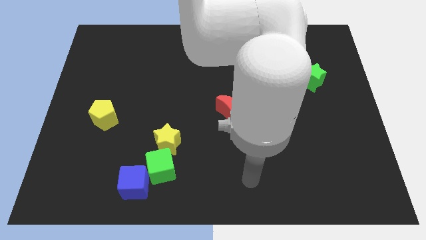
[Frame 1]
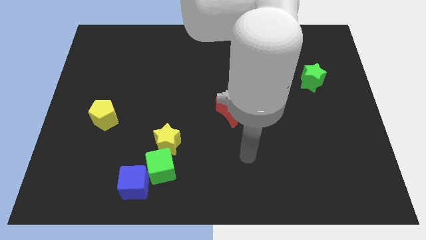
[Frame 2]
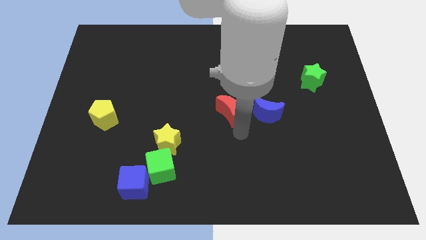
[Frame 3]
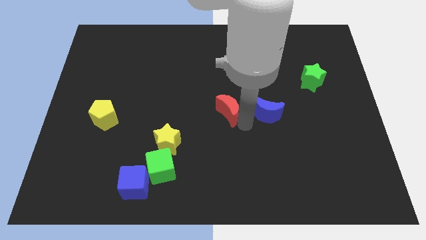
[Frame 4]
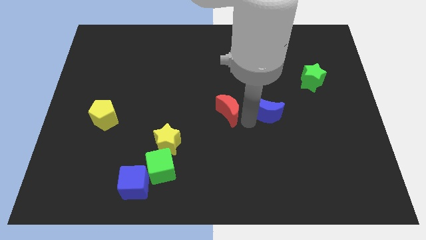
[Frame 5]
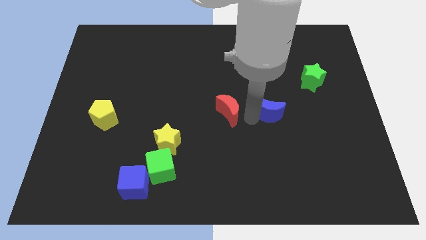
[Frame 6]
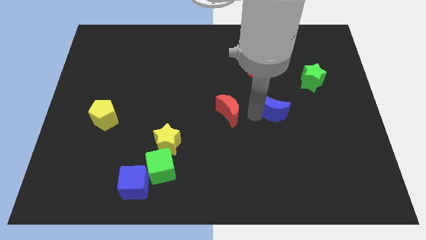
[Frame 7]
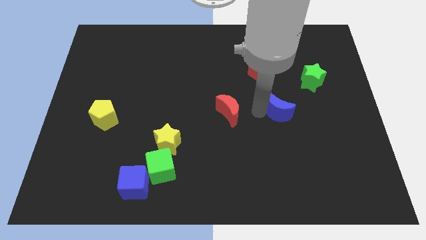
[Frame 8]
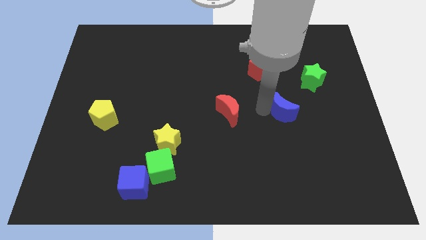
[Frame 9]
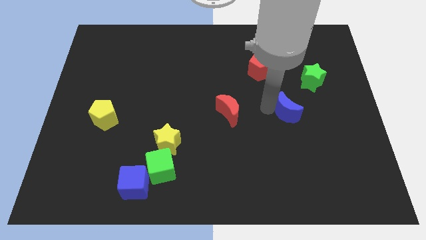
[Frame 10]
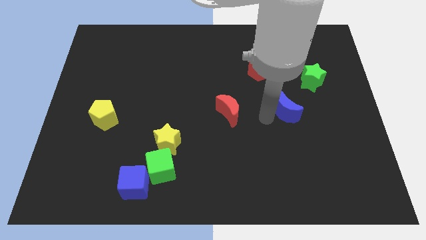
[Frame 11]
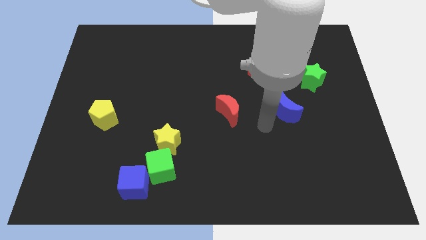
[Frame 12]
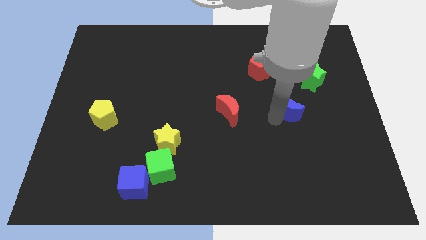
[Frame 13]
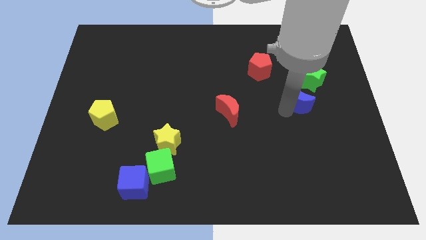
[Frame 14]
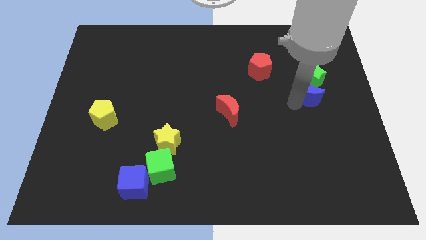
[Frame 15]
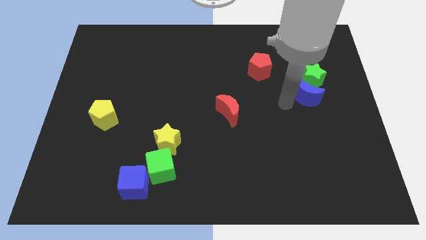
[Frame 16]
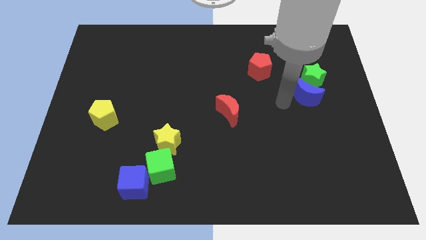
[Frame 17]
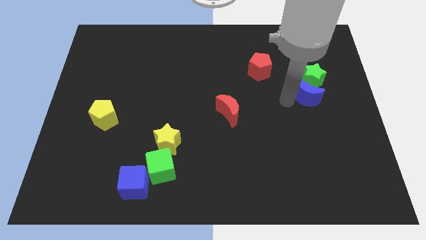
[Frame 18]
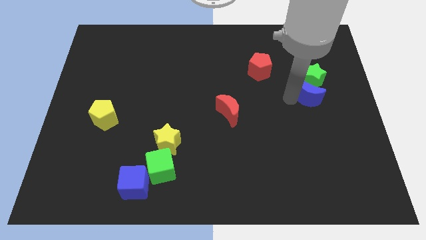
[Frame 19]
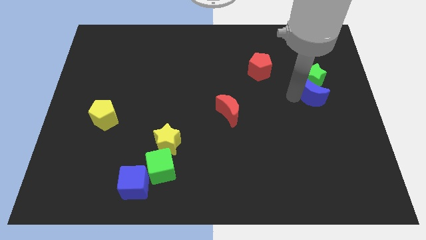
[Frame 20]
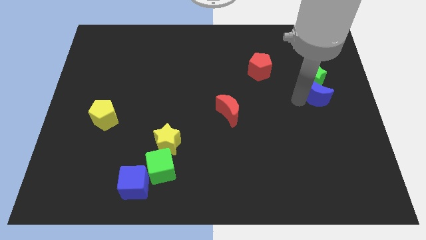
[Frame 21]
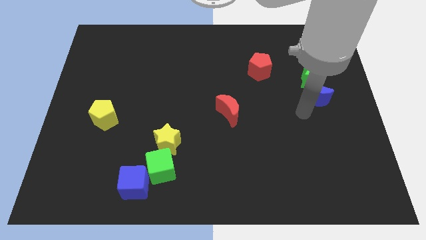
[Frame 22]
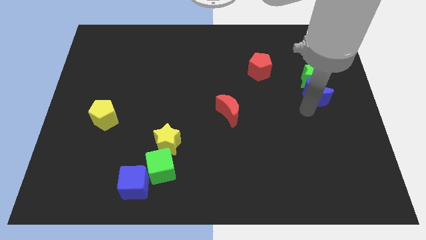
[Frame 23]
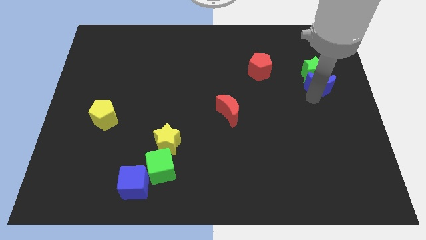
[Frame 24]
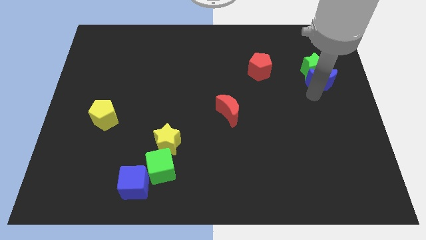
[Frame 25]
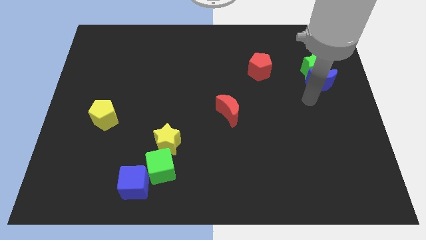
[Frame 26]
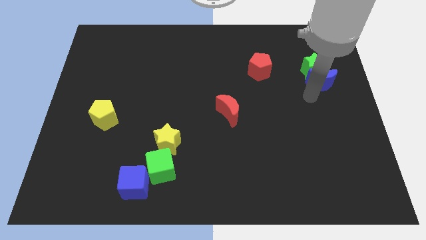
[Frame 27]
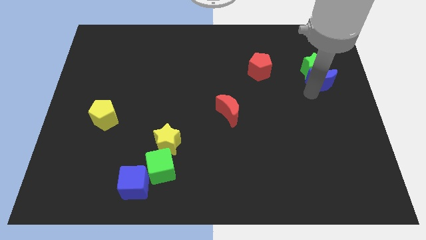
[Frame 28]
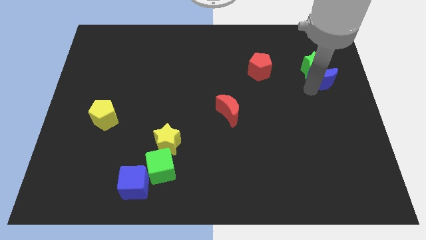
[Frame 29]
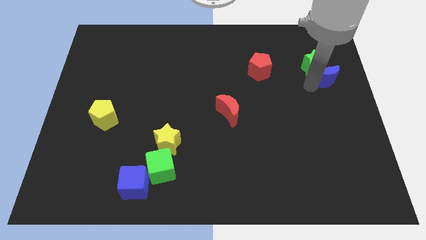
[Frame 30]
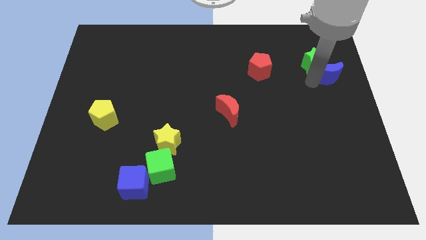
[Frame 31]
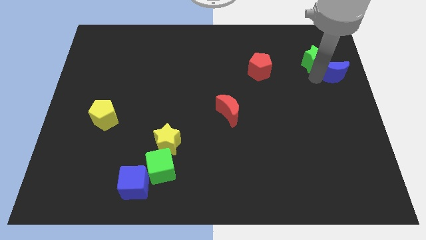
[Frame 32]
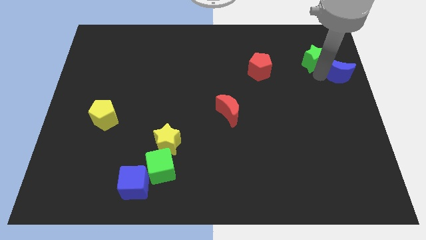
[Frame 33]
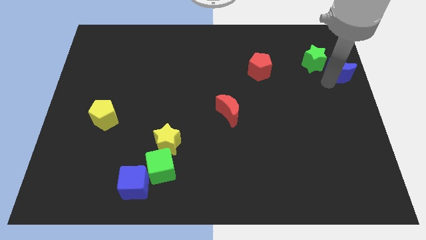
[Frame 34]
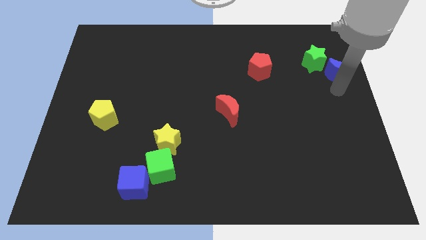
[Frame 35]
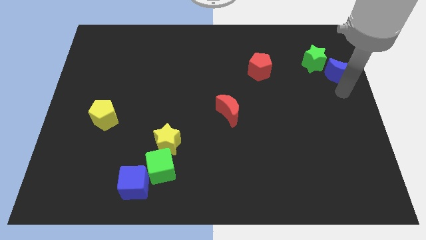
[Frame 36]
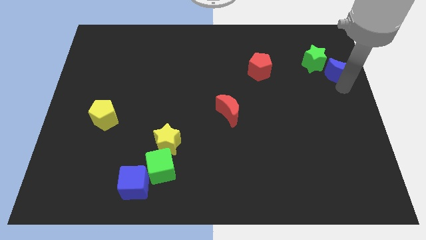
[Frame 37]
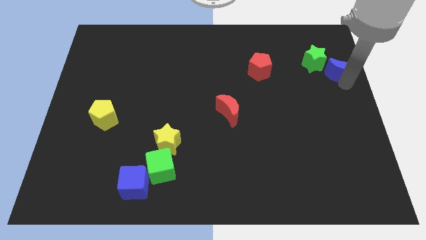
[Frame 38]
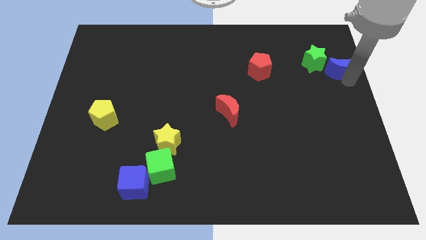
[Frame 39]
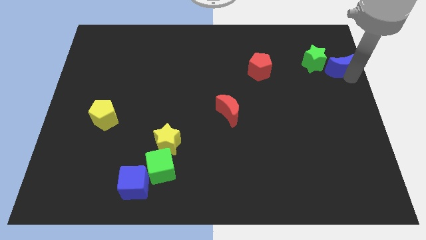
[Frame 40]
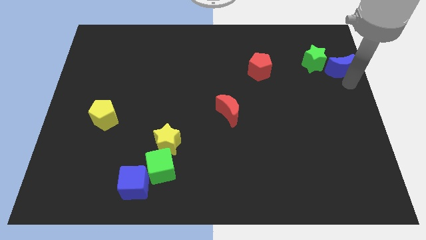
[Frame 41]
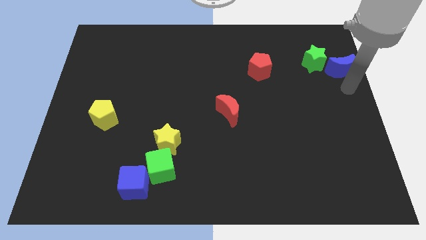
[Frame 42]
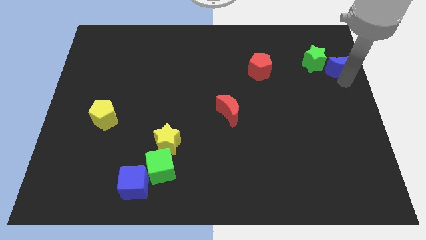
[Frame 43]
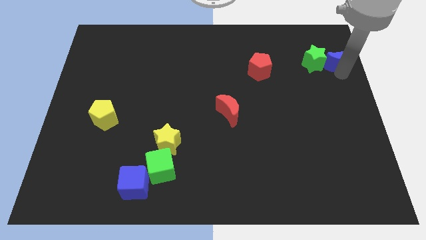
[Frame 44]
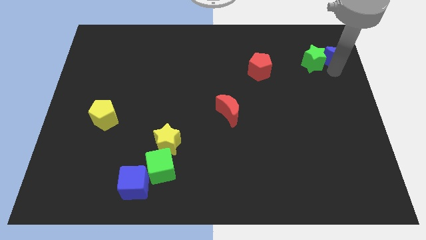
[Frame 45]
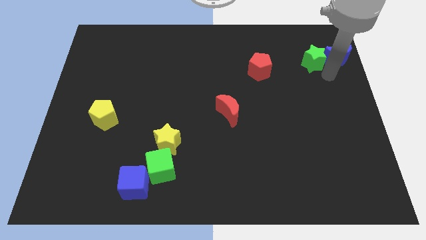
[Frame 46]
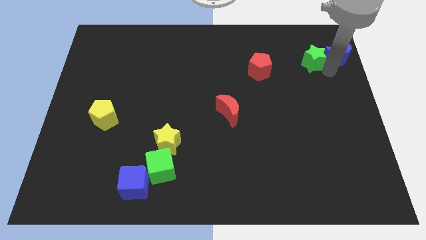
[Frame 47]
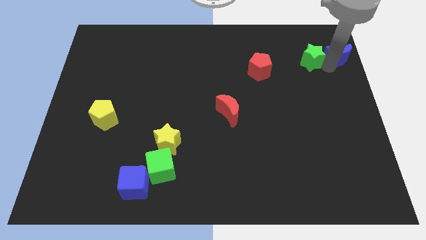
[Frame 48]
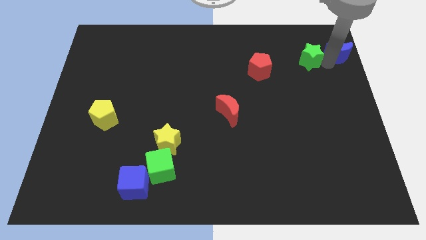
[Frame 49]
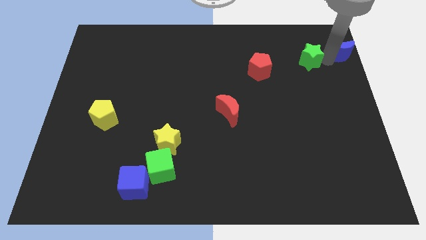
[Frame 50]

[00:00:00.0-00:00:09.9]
move the blue moon to the top right of the board

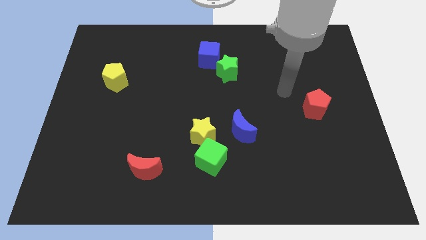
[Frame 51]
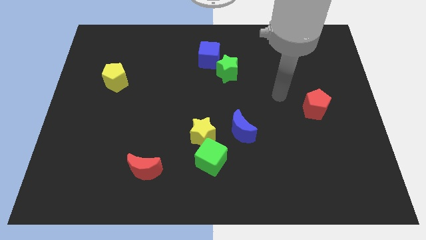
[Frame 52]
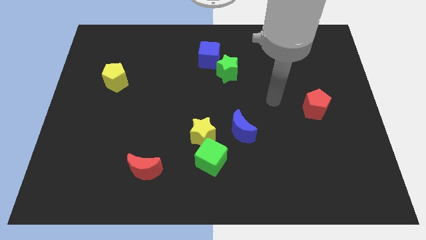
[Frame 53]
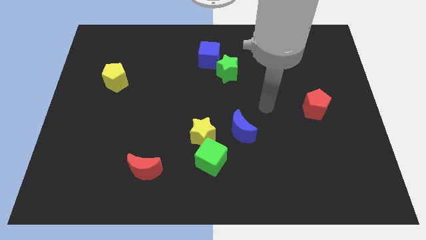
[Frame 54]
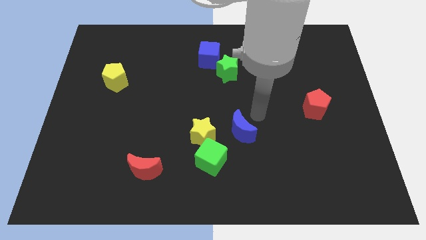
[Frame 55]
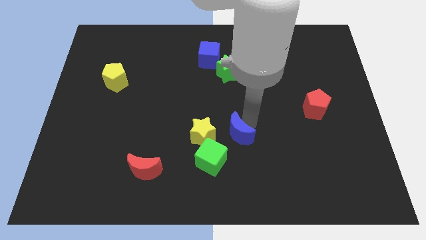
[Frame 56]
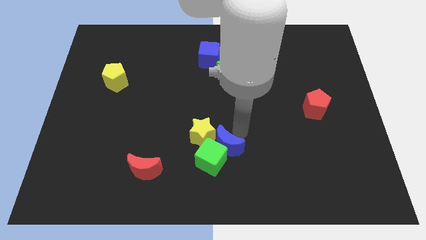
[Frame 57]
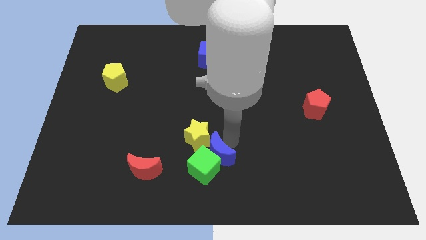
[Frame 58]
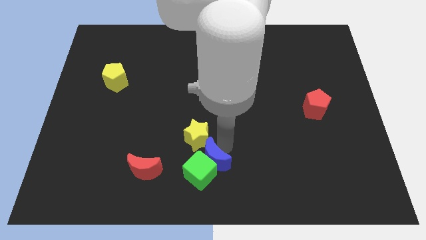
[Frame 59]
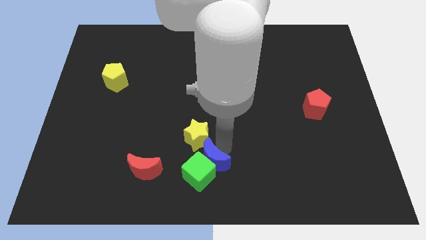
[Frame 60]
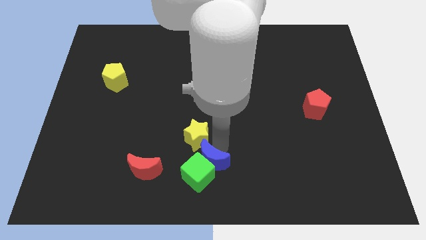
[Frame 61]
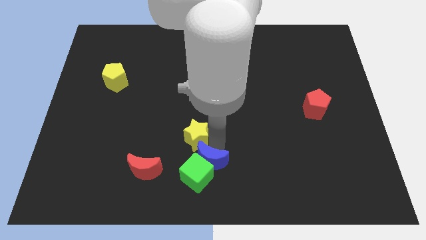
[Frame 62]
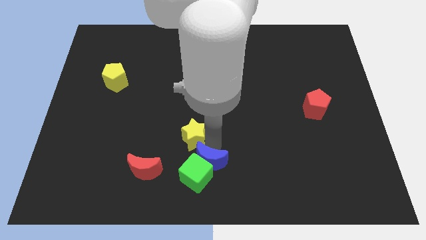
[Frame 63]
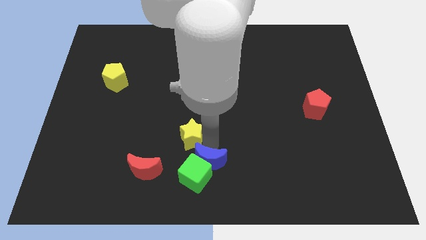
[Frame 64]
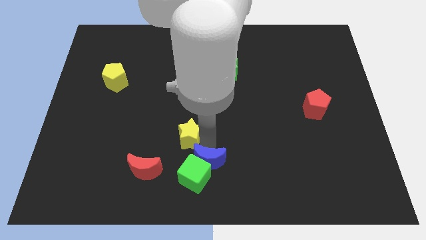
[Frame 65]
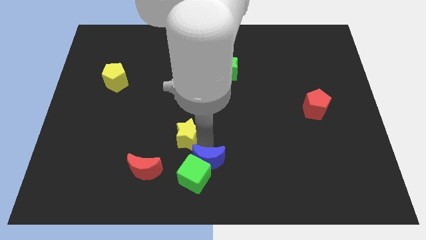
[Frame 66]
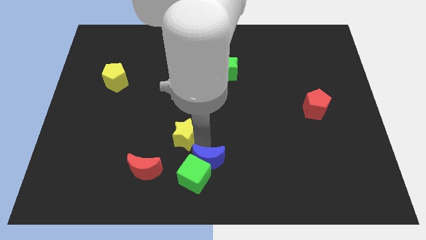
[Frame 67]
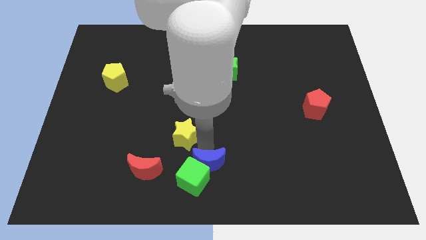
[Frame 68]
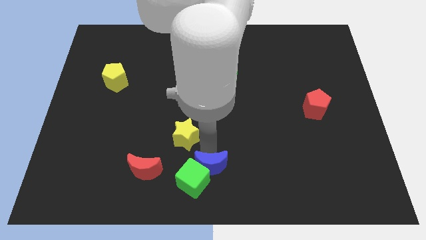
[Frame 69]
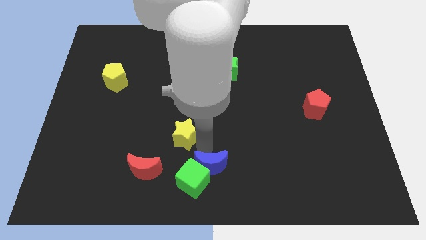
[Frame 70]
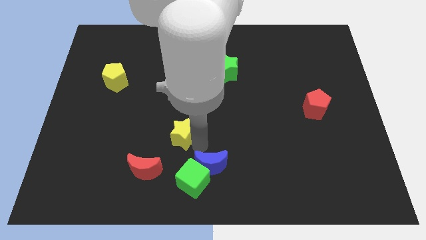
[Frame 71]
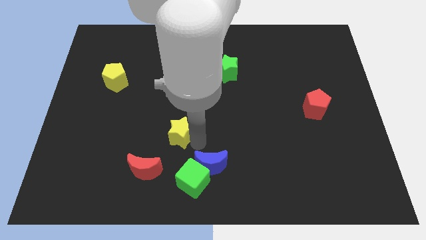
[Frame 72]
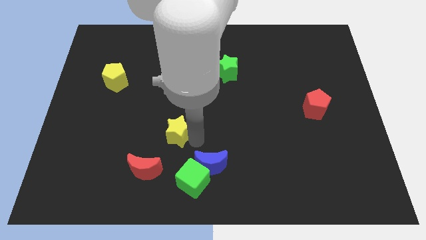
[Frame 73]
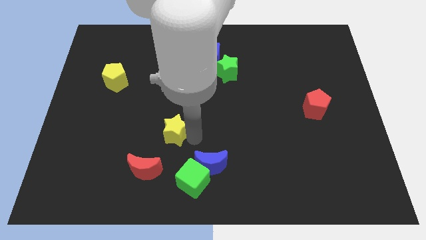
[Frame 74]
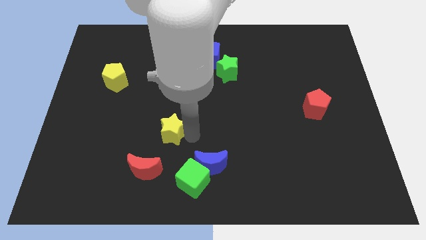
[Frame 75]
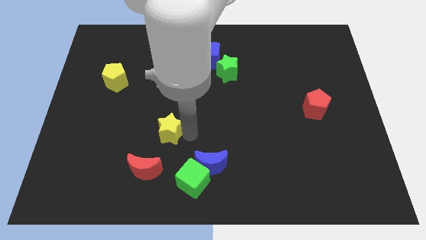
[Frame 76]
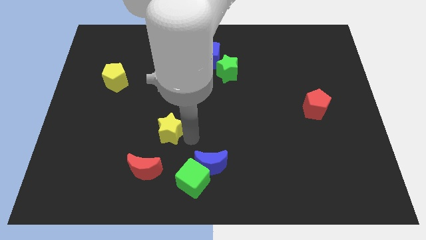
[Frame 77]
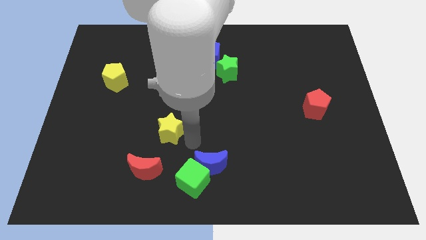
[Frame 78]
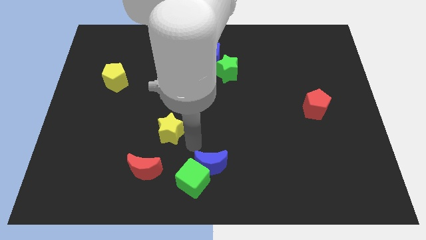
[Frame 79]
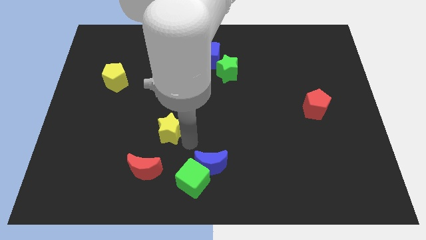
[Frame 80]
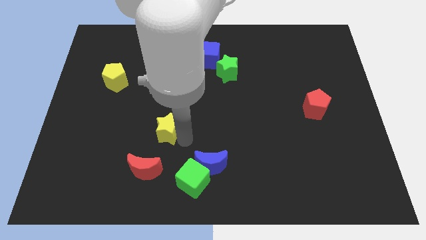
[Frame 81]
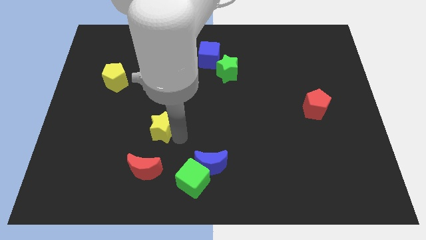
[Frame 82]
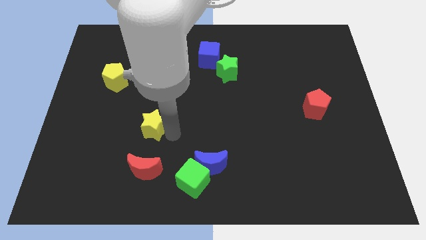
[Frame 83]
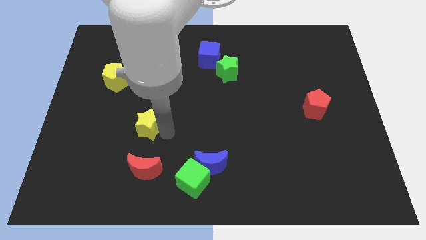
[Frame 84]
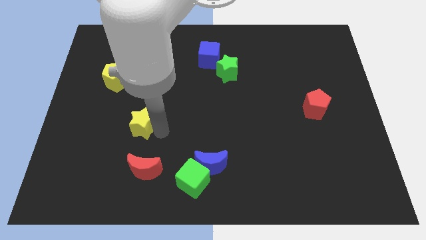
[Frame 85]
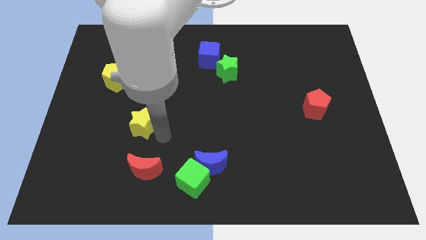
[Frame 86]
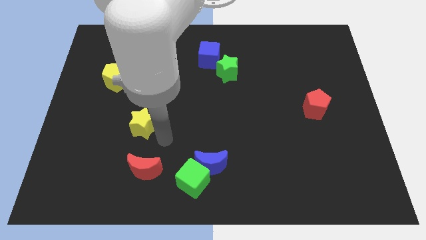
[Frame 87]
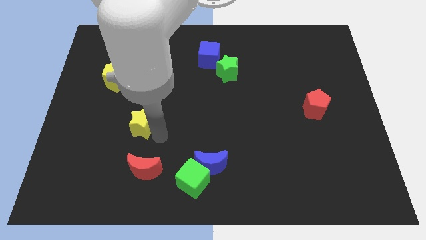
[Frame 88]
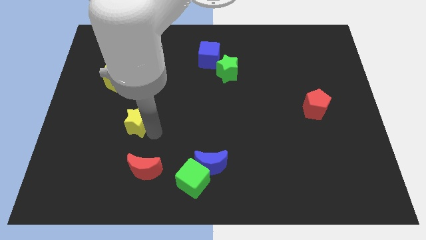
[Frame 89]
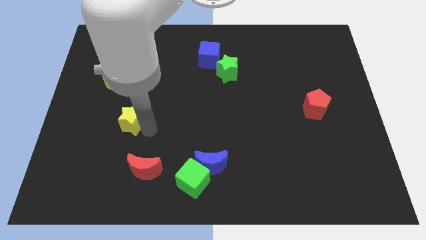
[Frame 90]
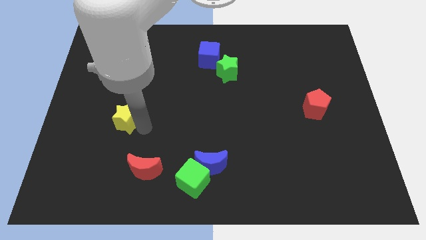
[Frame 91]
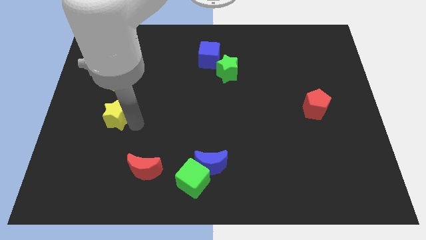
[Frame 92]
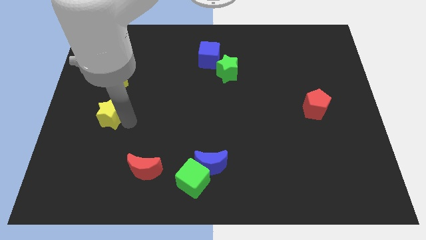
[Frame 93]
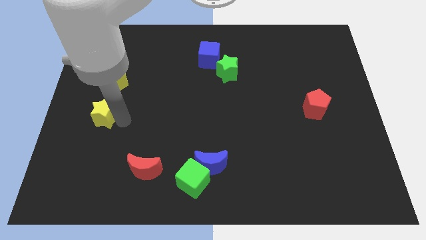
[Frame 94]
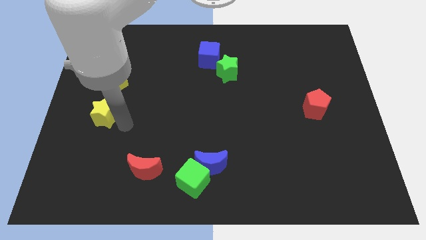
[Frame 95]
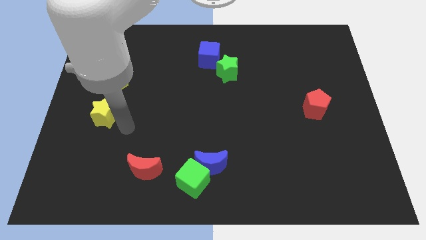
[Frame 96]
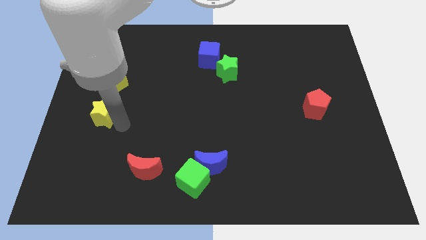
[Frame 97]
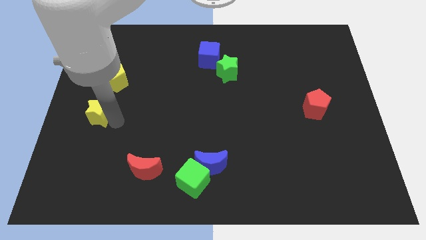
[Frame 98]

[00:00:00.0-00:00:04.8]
move the yellow star to the center left
